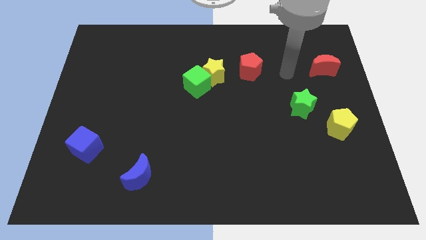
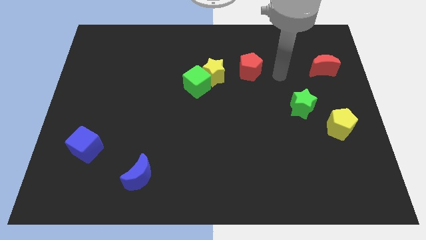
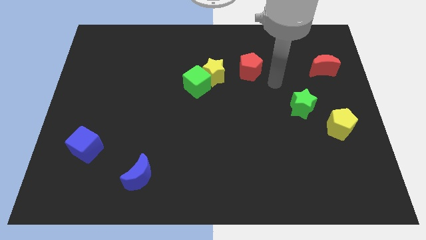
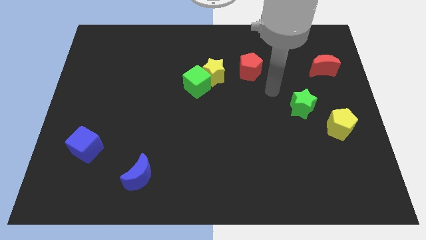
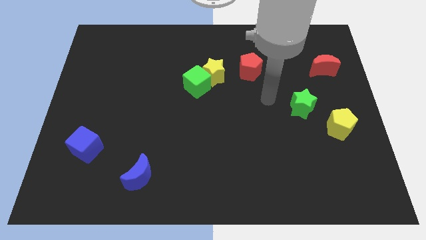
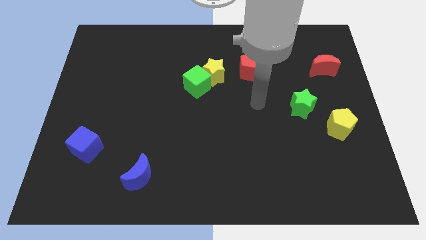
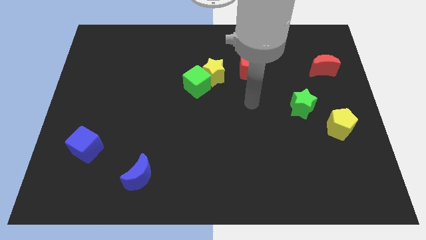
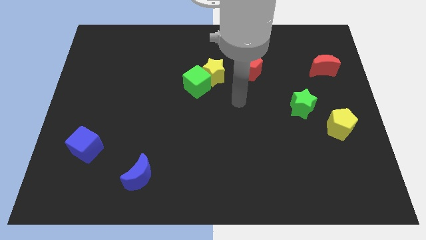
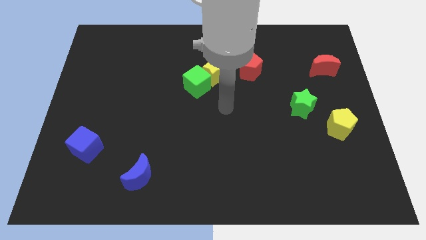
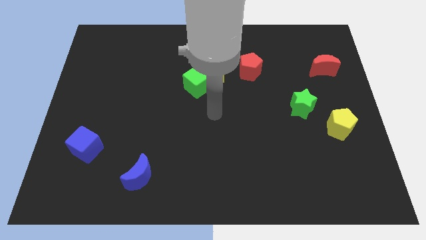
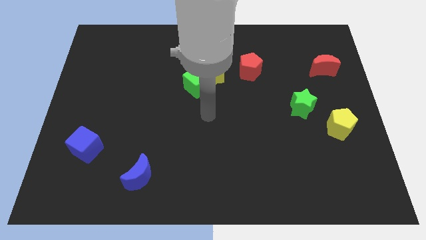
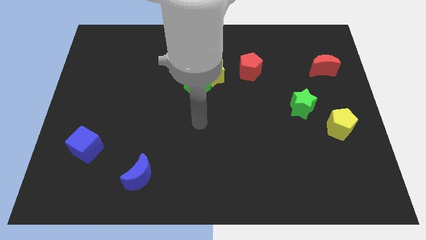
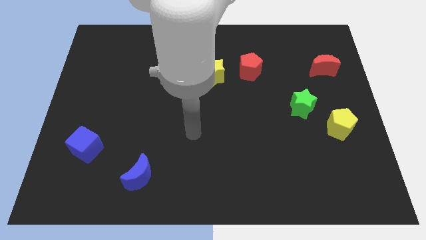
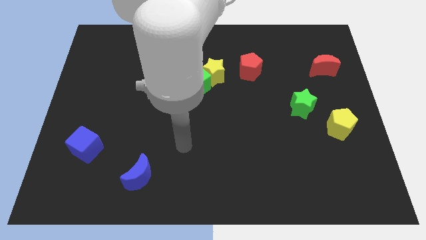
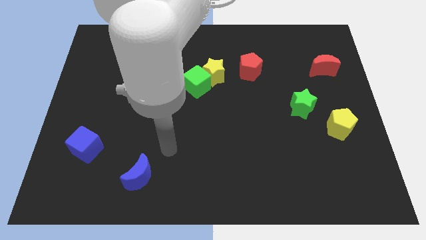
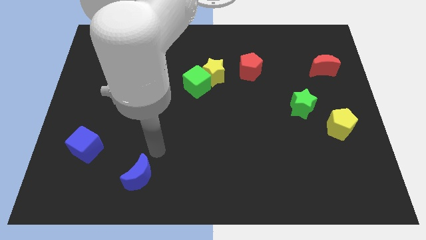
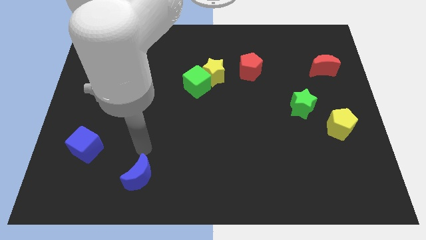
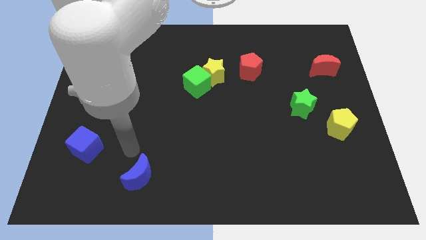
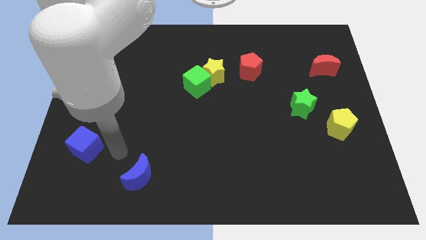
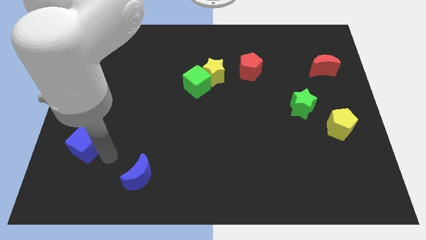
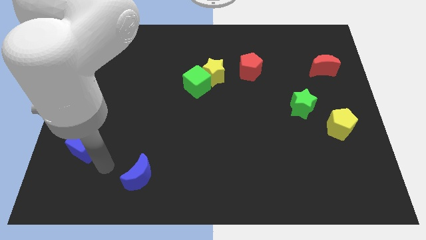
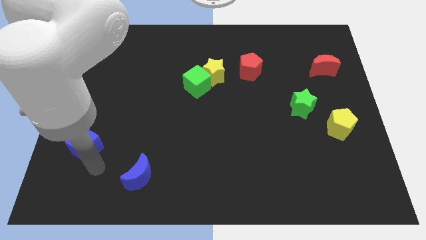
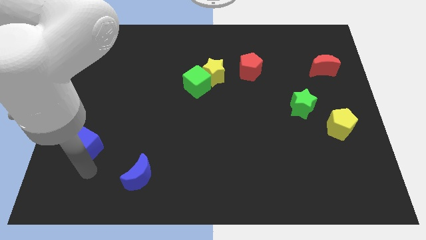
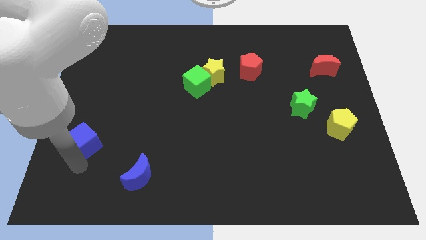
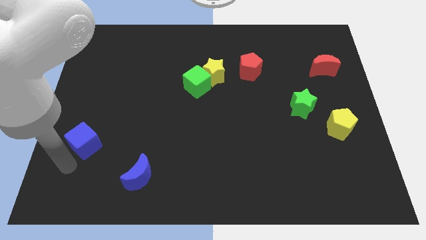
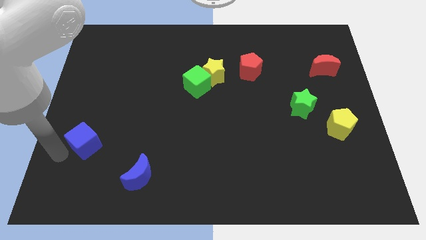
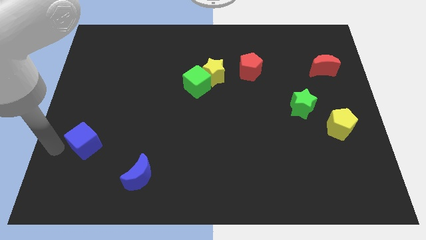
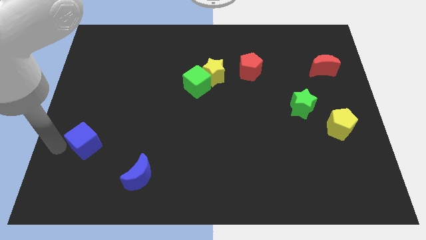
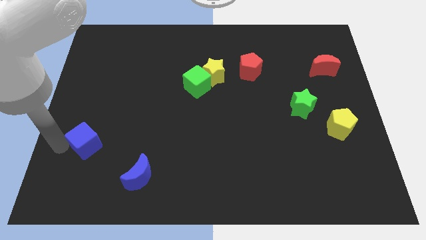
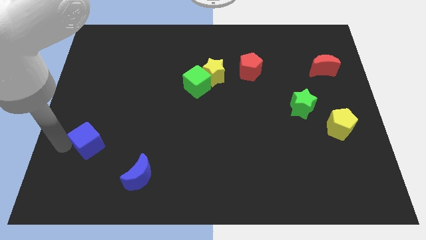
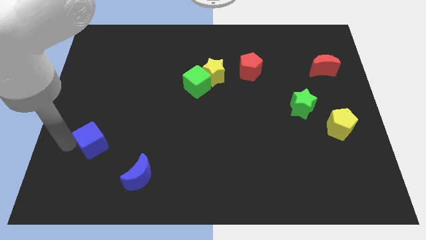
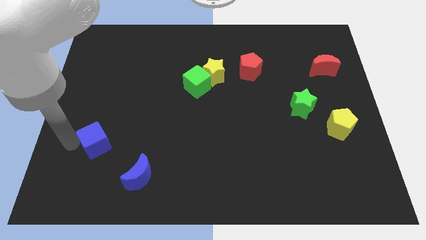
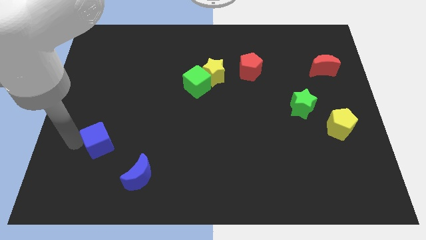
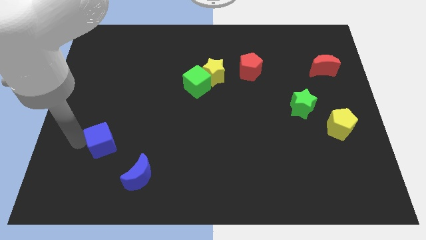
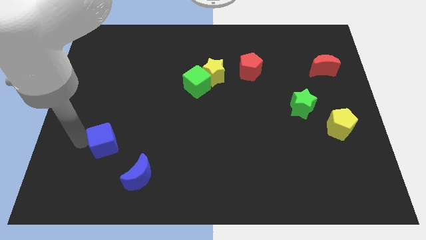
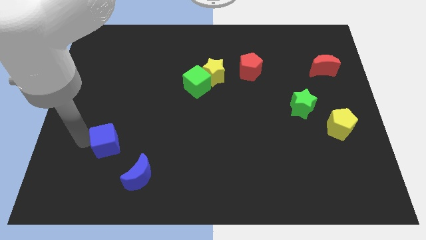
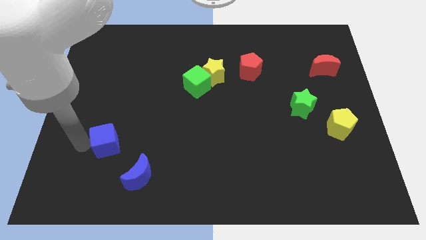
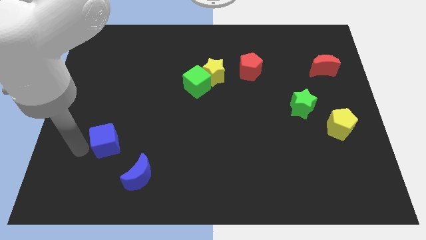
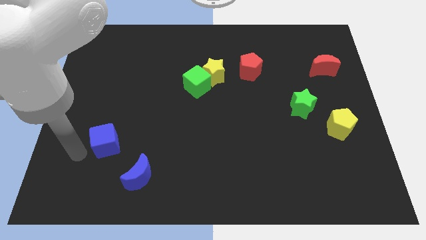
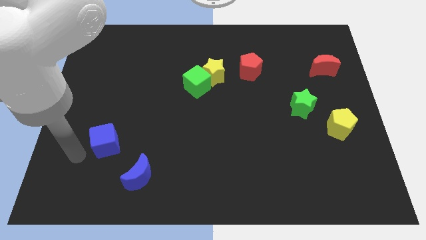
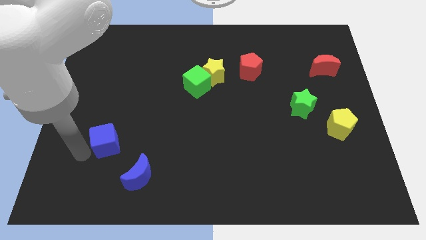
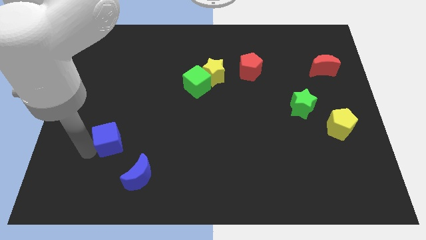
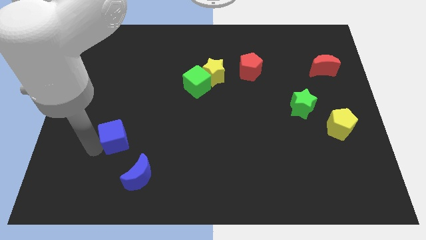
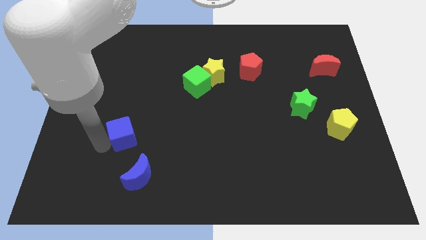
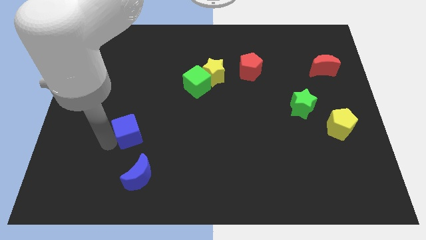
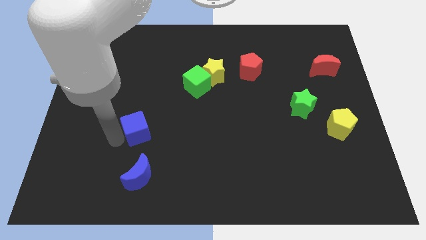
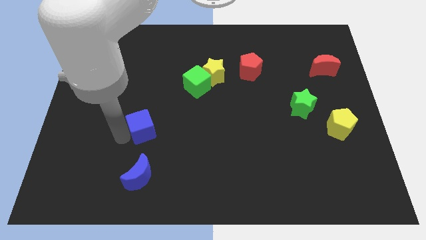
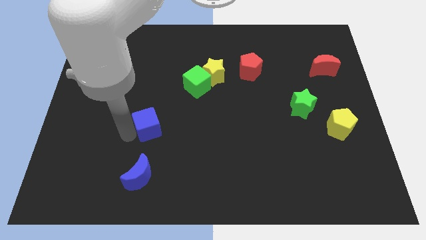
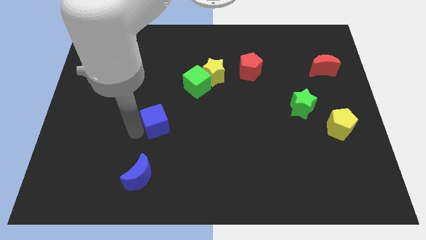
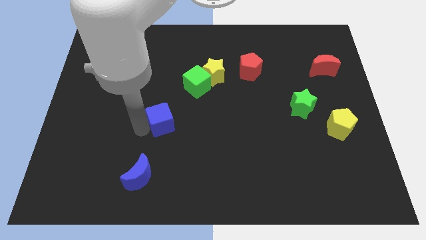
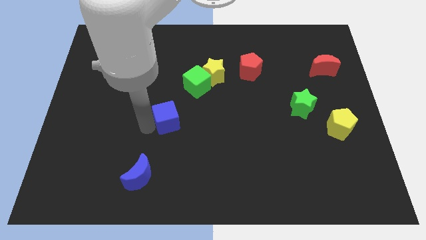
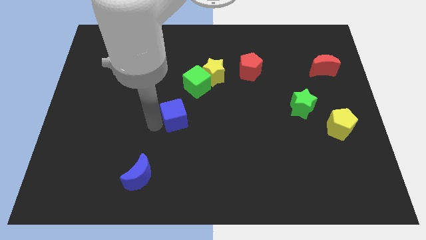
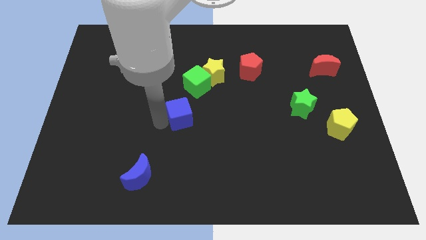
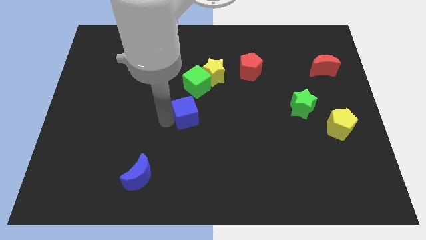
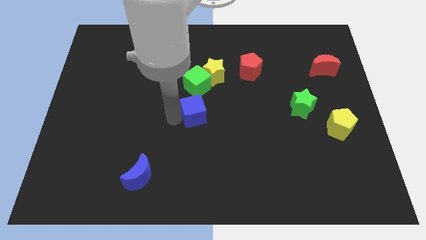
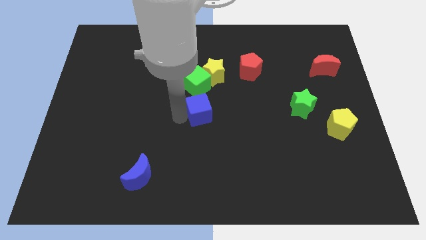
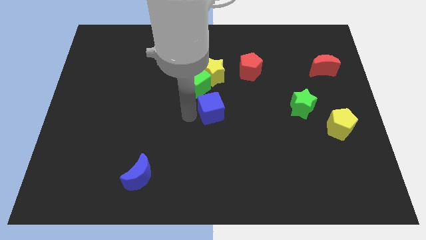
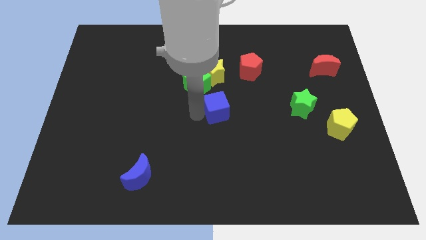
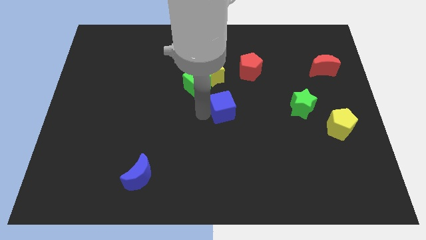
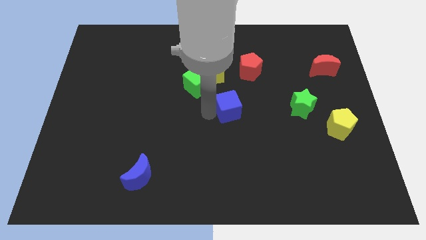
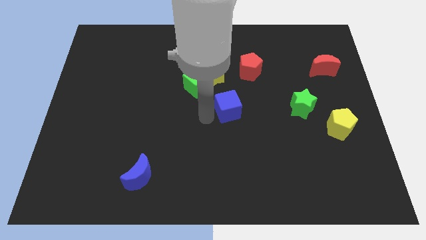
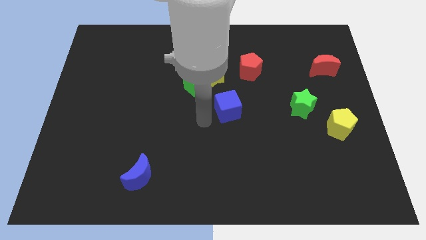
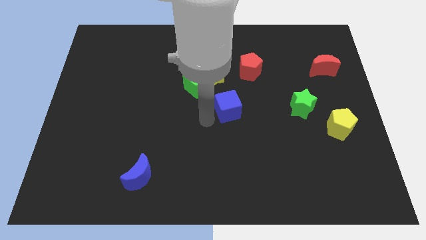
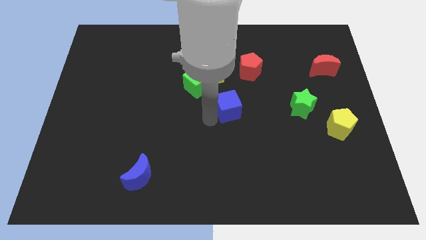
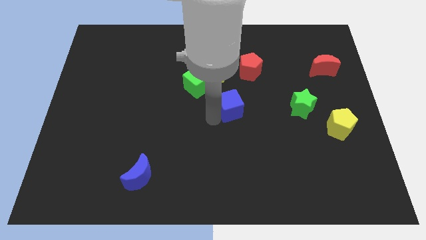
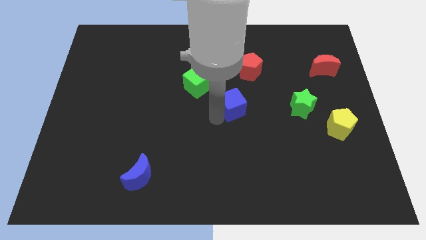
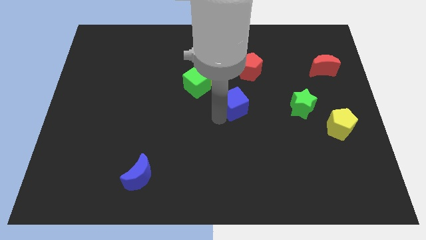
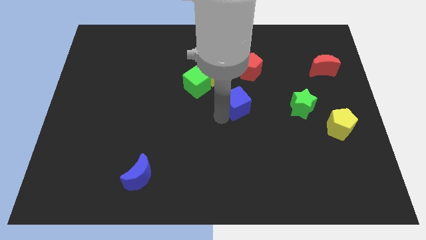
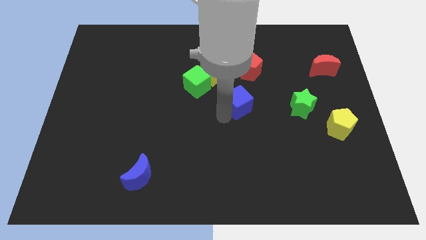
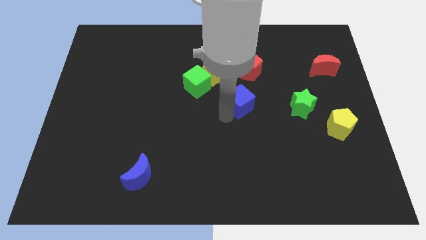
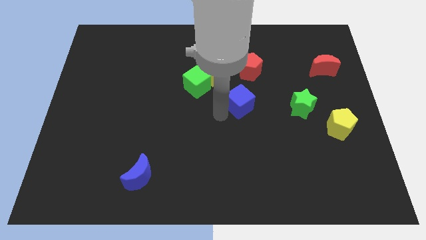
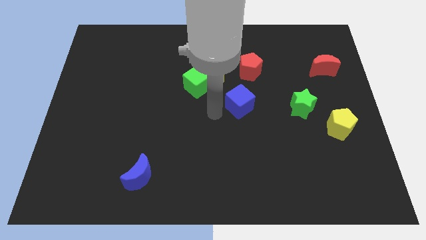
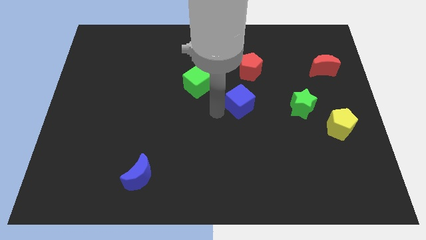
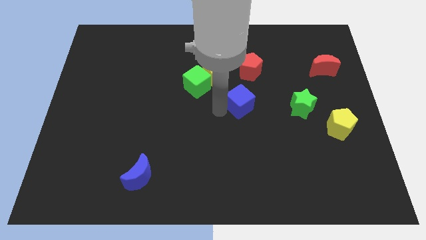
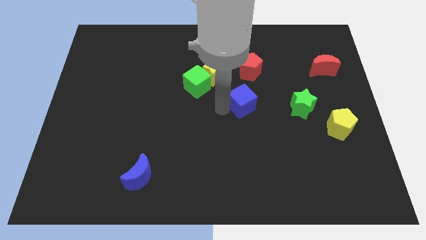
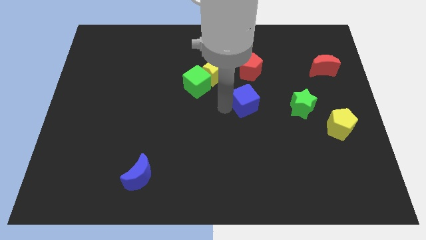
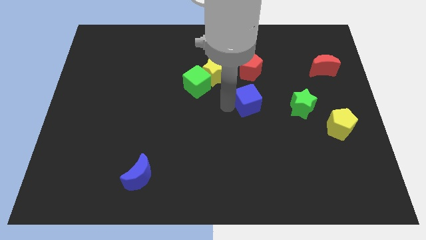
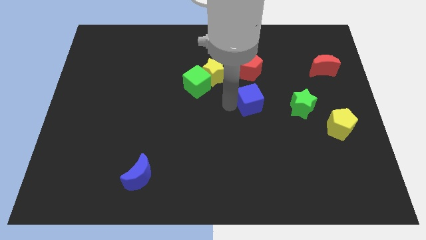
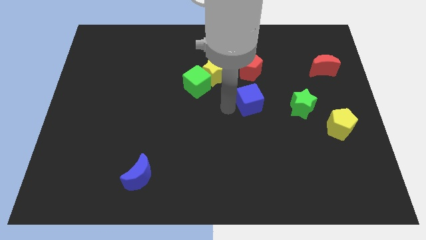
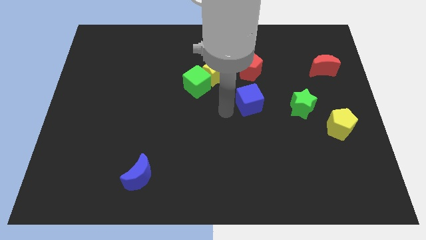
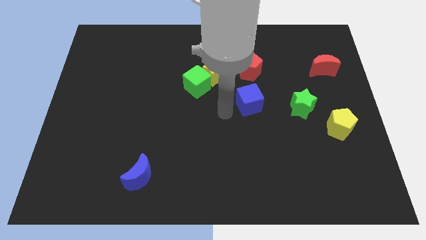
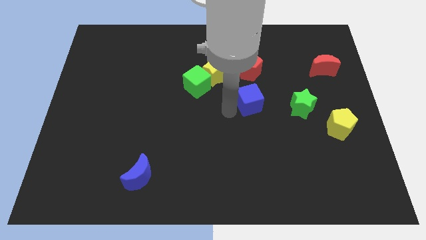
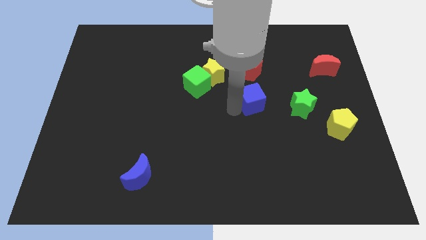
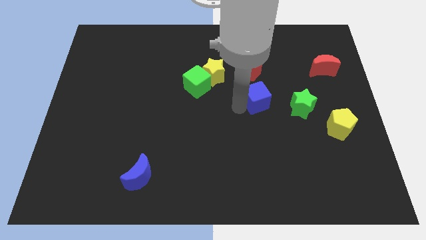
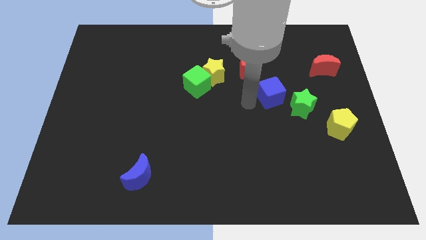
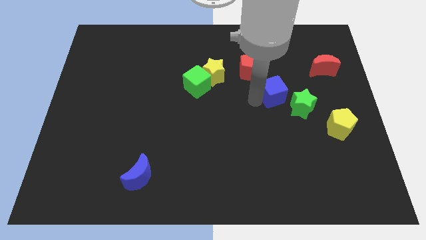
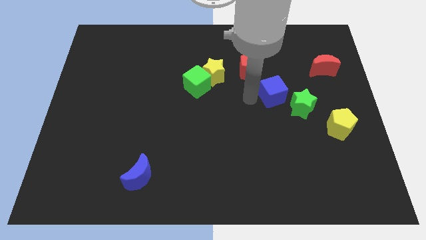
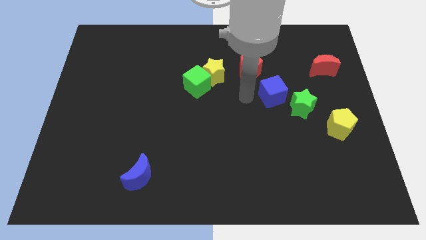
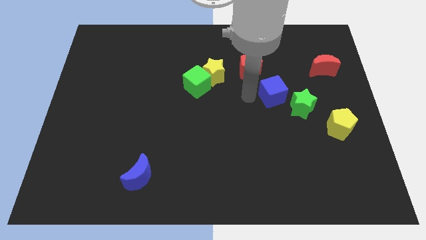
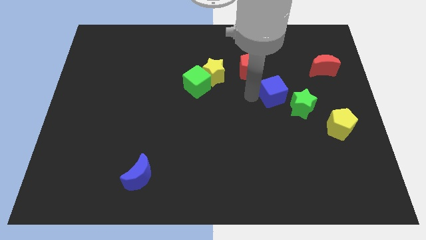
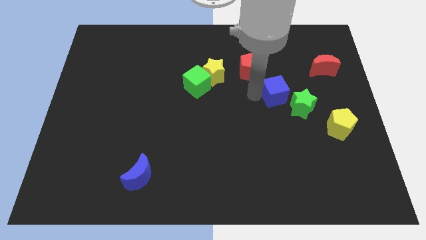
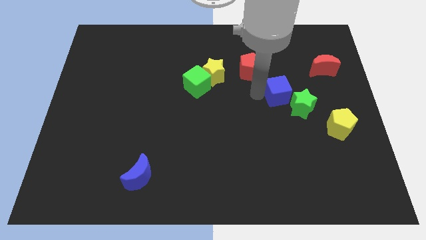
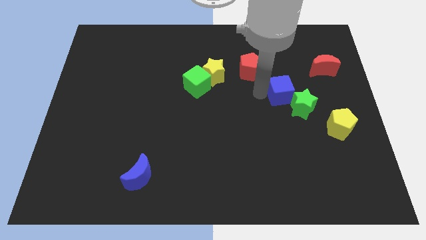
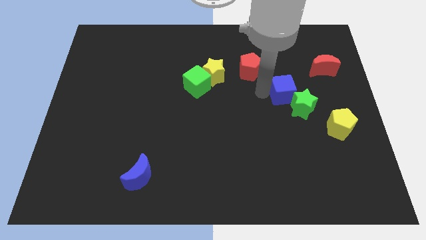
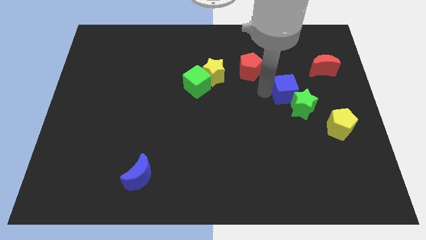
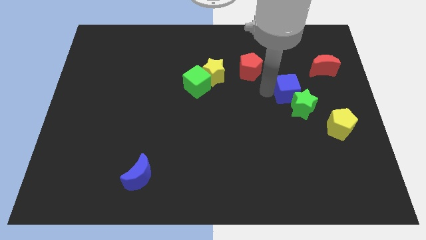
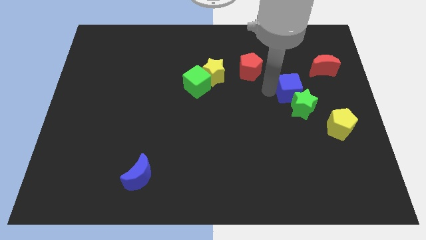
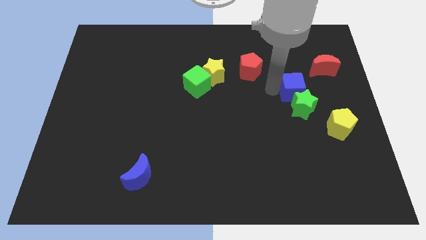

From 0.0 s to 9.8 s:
move the blue cube to the top right side of the green star
